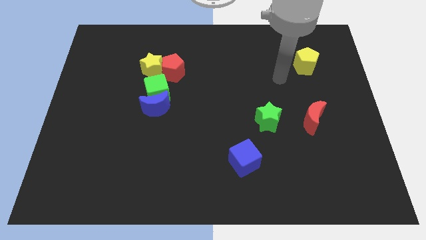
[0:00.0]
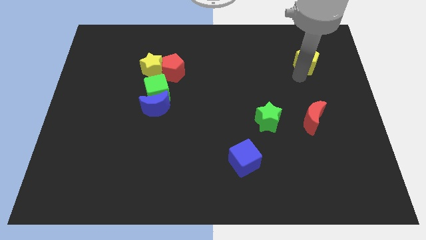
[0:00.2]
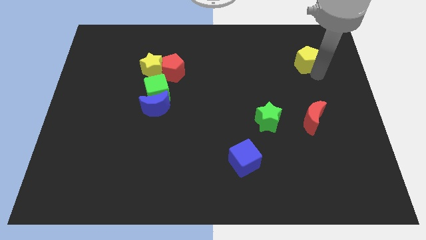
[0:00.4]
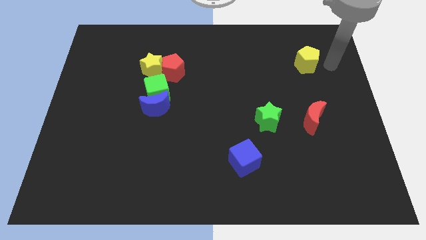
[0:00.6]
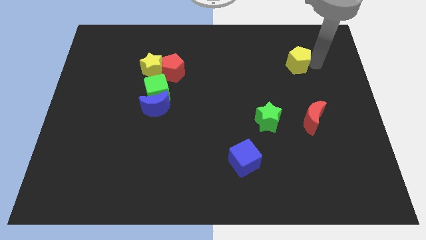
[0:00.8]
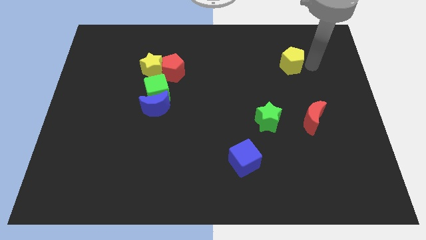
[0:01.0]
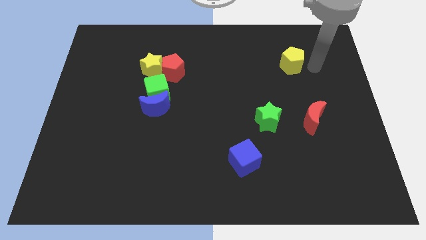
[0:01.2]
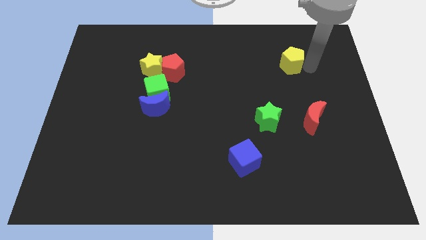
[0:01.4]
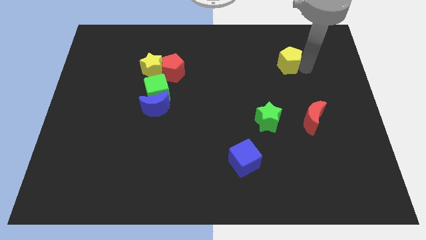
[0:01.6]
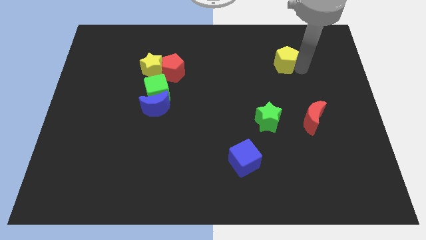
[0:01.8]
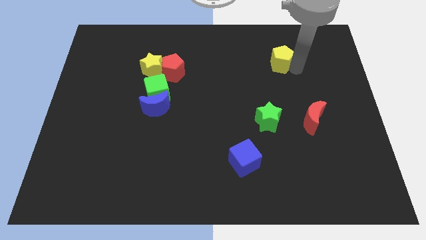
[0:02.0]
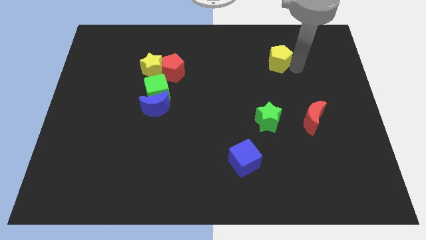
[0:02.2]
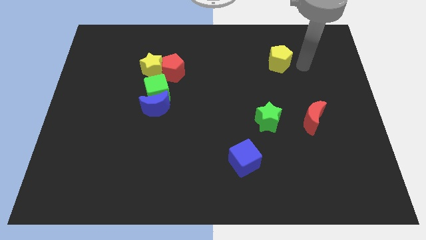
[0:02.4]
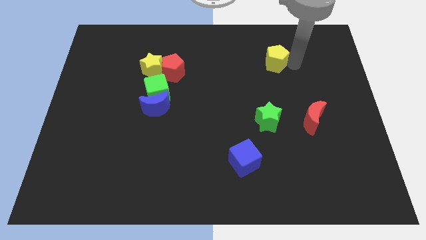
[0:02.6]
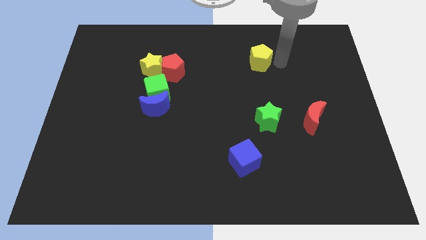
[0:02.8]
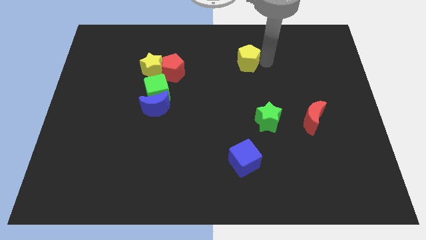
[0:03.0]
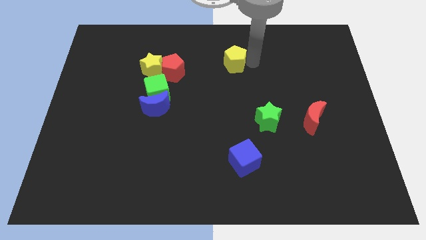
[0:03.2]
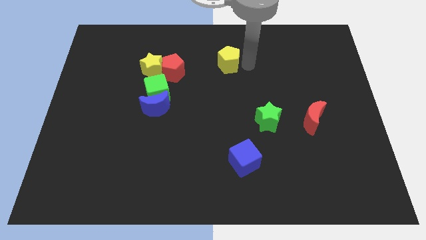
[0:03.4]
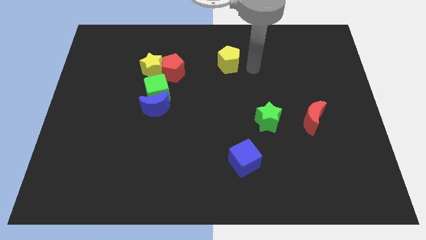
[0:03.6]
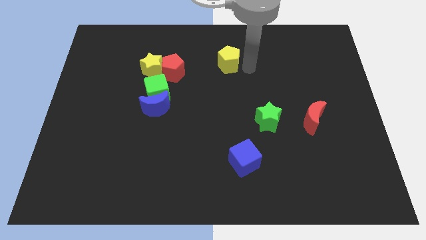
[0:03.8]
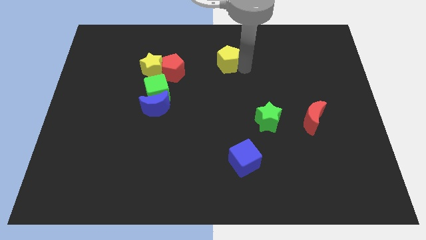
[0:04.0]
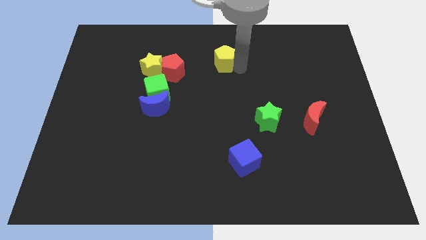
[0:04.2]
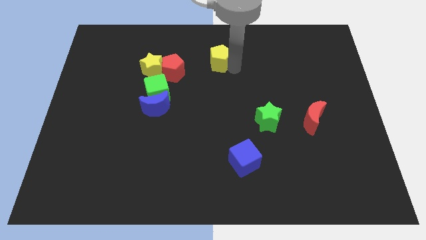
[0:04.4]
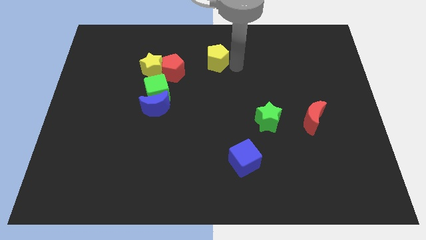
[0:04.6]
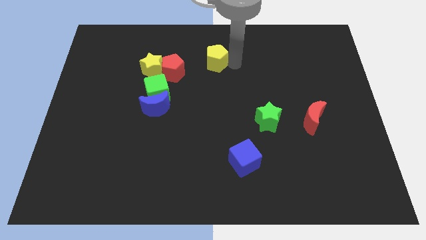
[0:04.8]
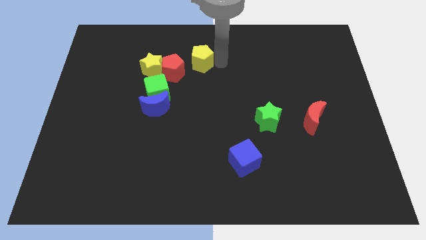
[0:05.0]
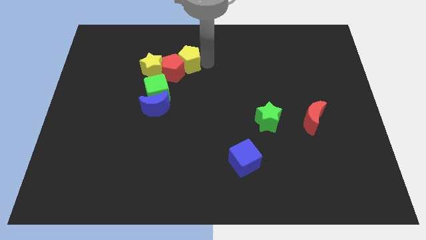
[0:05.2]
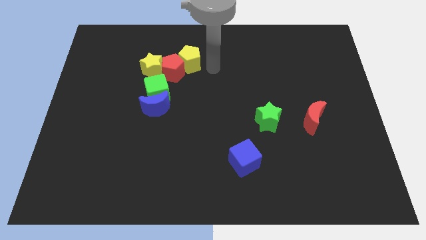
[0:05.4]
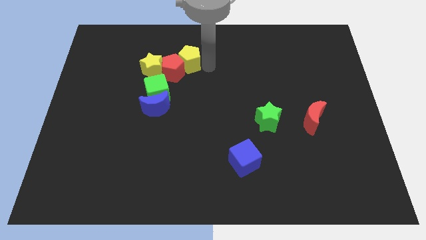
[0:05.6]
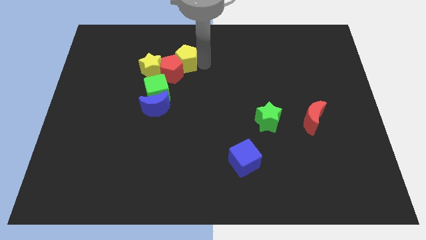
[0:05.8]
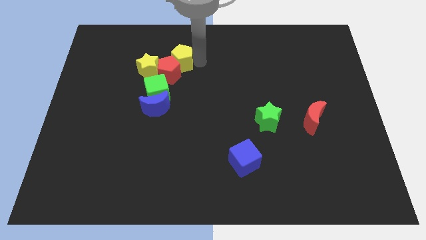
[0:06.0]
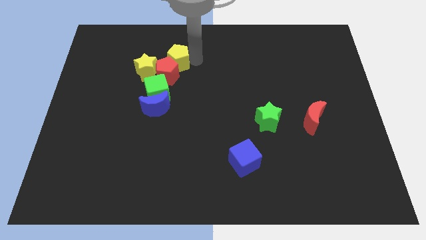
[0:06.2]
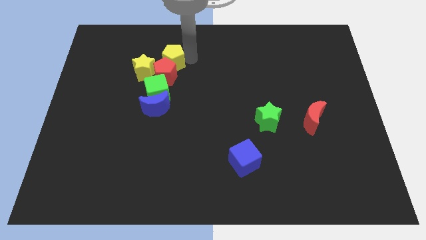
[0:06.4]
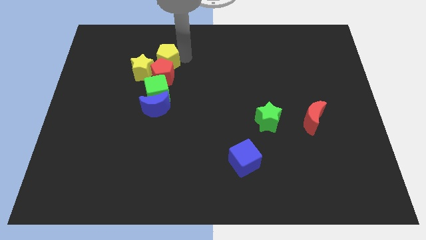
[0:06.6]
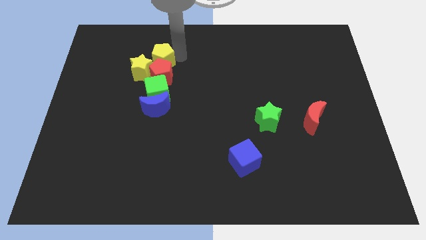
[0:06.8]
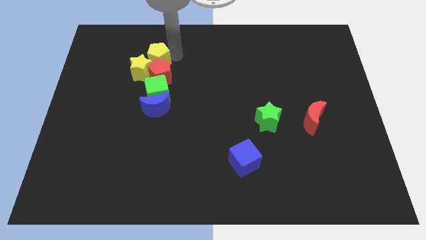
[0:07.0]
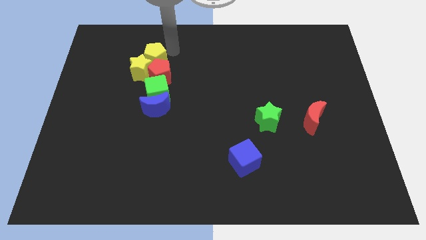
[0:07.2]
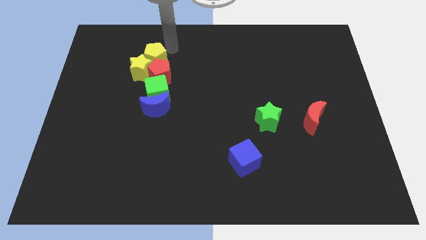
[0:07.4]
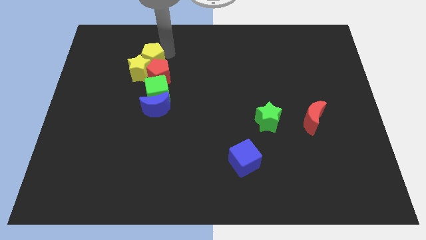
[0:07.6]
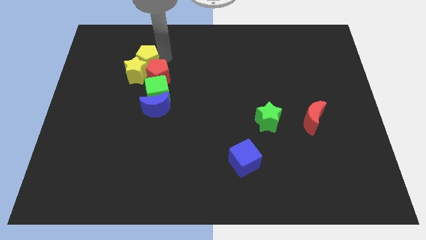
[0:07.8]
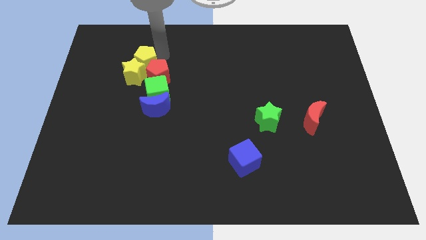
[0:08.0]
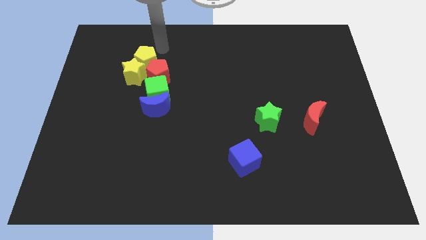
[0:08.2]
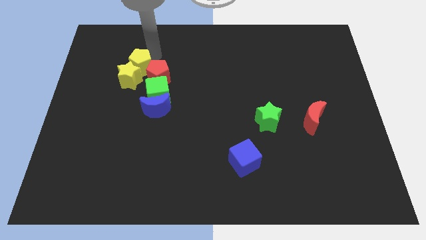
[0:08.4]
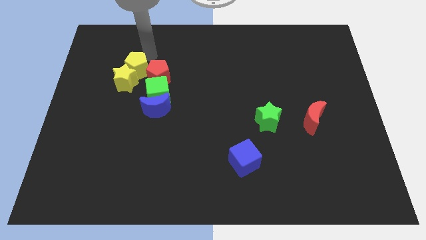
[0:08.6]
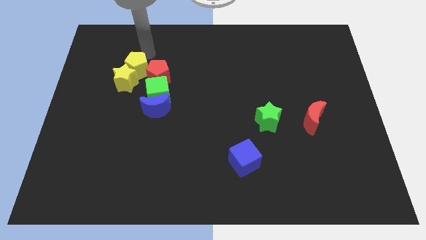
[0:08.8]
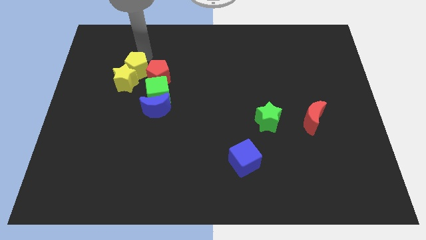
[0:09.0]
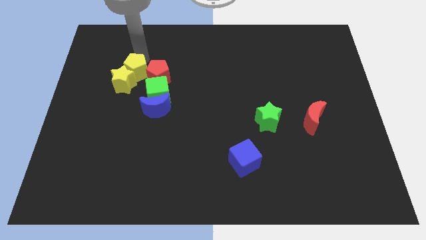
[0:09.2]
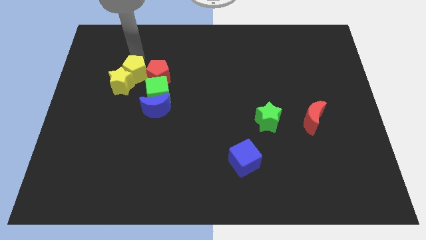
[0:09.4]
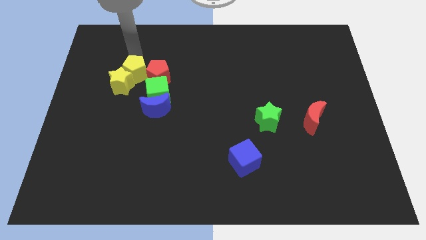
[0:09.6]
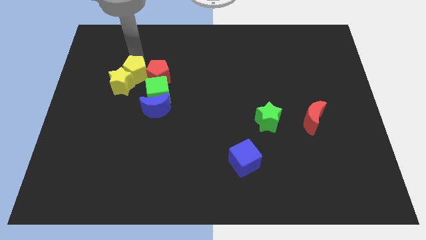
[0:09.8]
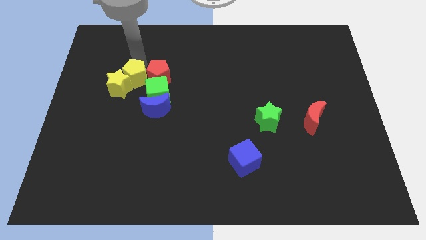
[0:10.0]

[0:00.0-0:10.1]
push the yellow pentagon to the top left of the blue moon

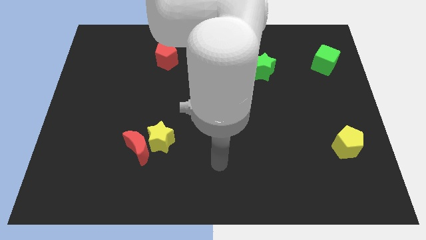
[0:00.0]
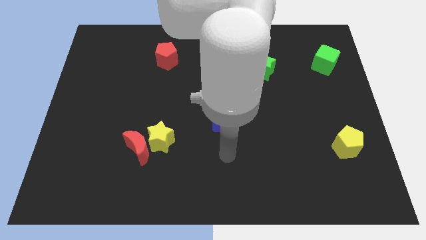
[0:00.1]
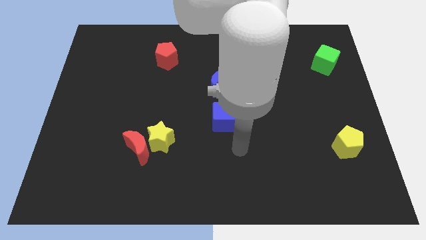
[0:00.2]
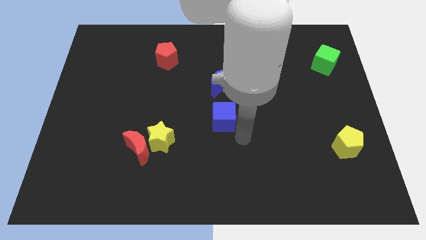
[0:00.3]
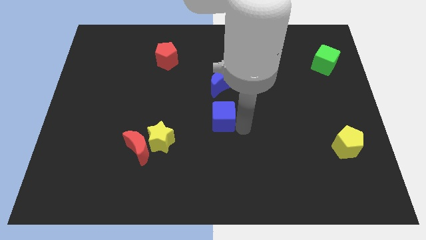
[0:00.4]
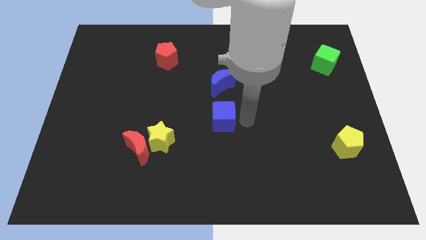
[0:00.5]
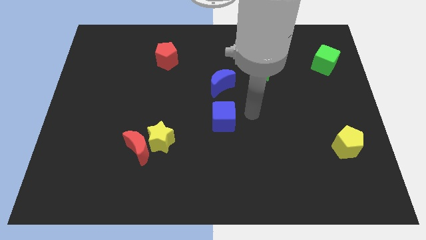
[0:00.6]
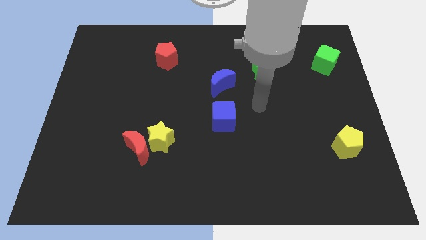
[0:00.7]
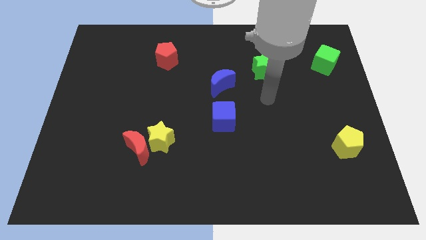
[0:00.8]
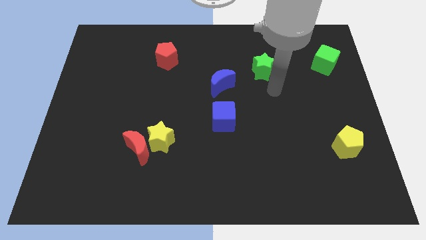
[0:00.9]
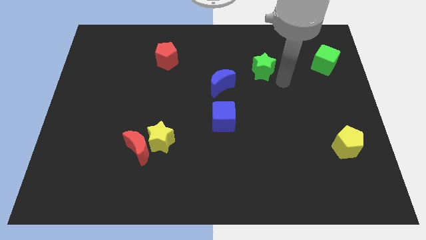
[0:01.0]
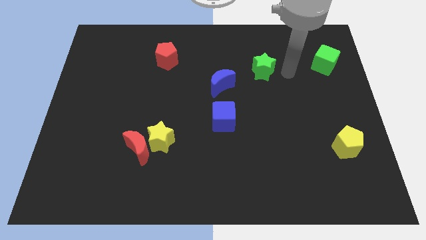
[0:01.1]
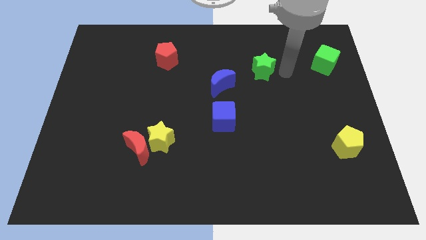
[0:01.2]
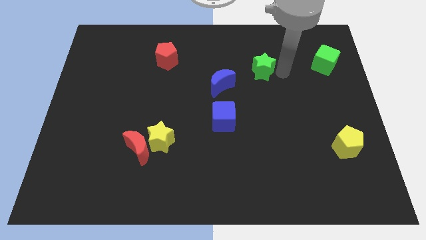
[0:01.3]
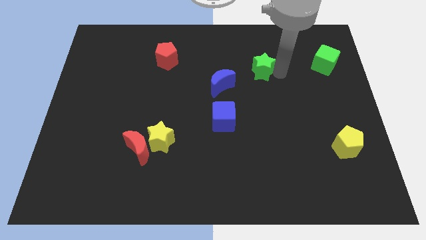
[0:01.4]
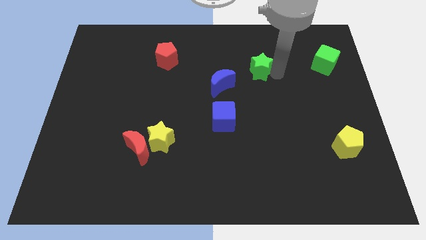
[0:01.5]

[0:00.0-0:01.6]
move the green star to the top right of the blue moon

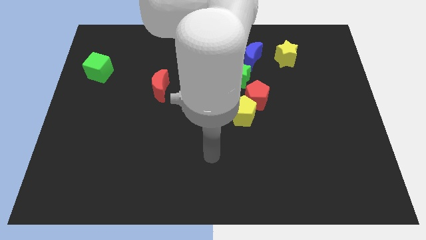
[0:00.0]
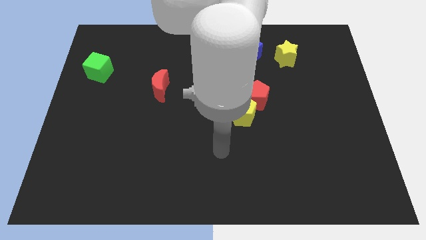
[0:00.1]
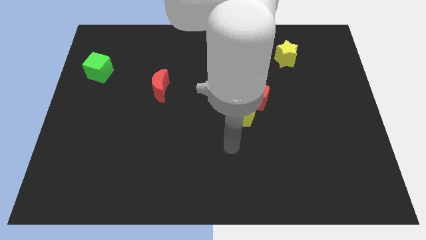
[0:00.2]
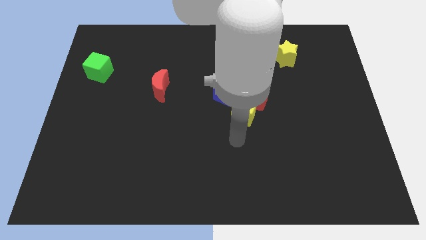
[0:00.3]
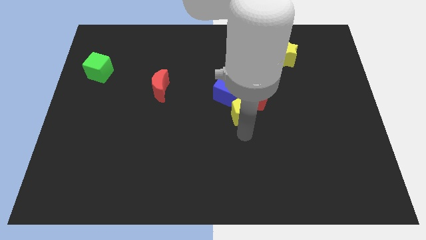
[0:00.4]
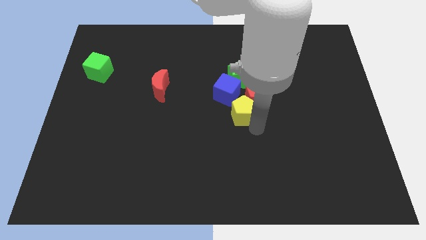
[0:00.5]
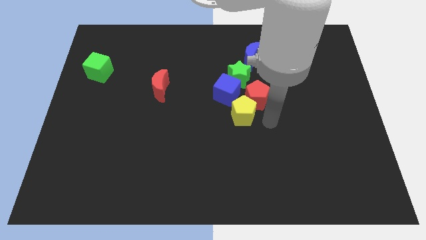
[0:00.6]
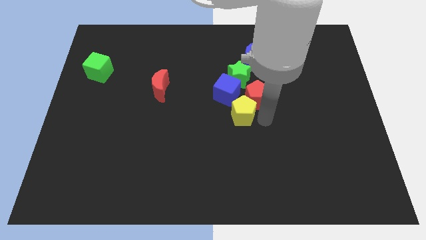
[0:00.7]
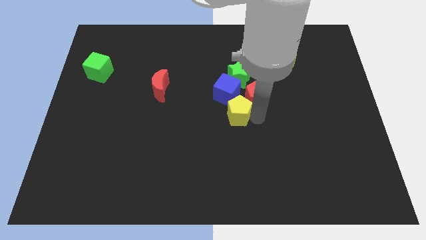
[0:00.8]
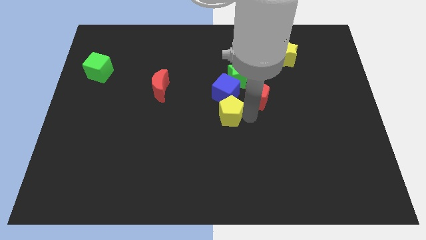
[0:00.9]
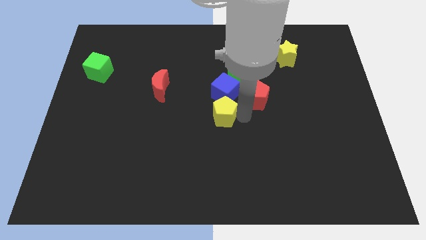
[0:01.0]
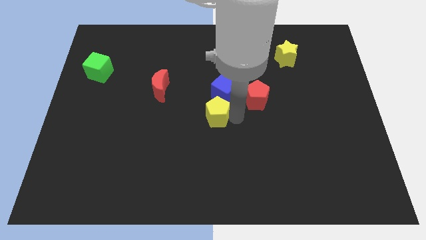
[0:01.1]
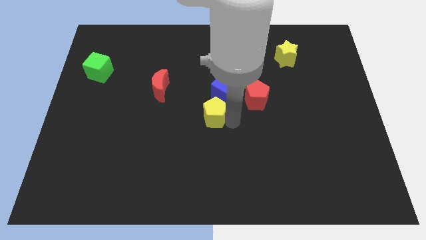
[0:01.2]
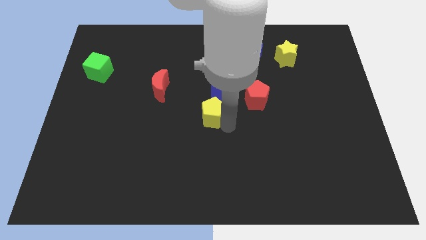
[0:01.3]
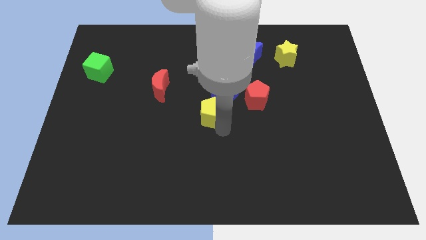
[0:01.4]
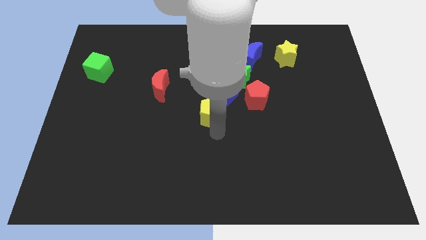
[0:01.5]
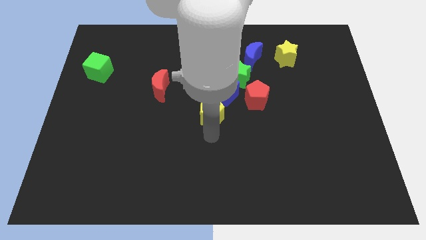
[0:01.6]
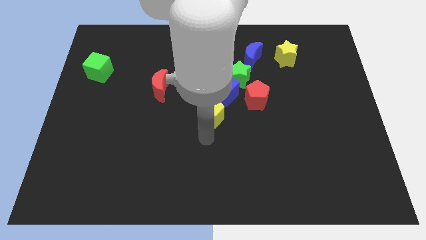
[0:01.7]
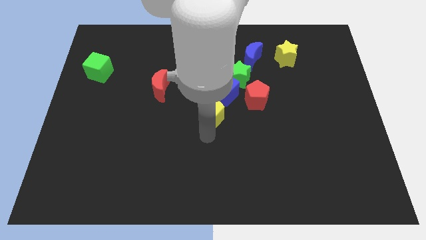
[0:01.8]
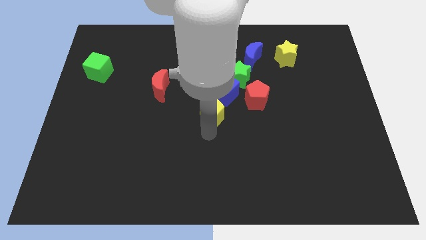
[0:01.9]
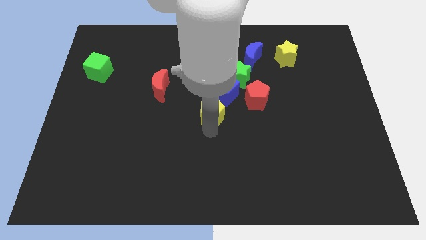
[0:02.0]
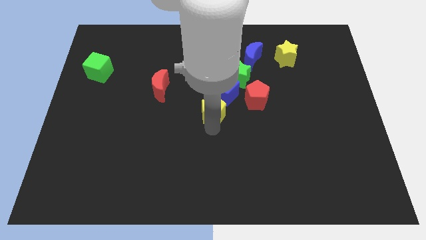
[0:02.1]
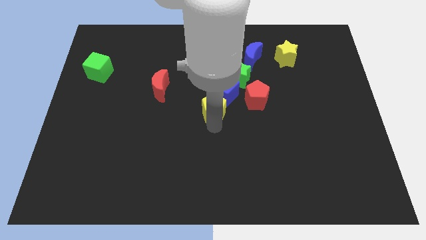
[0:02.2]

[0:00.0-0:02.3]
move the yellow pentagon to the bottom left of the green star
